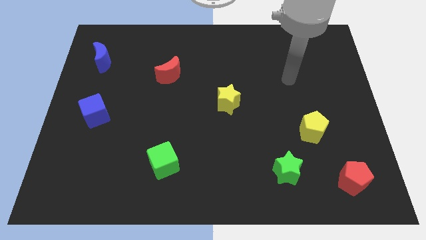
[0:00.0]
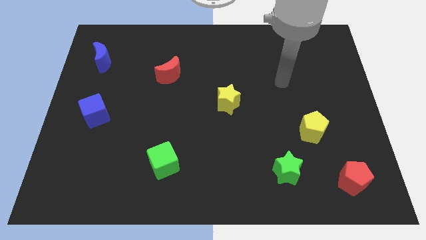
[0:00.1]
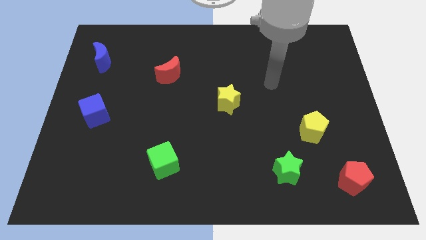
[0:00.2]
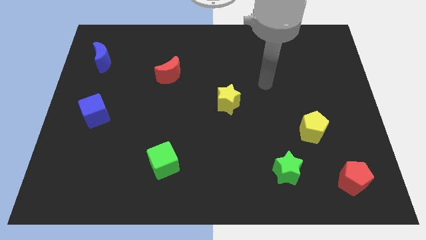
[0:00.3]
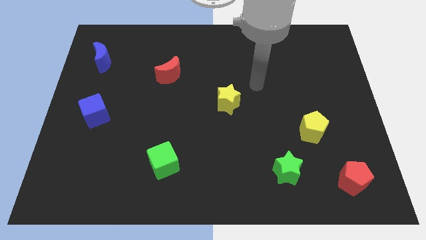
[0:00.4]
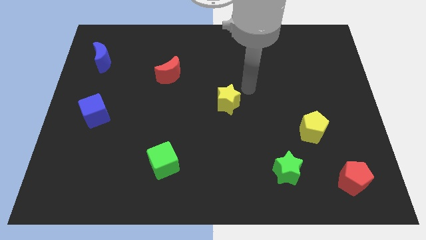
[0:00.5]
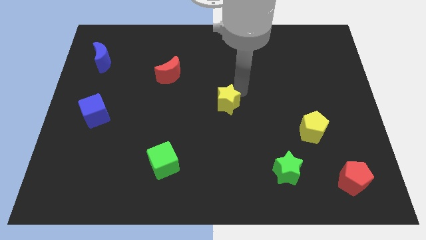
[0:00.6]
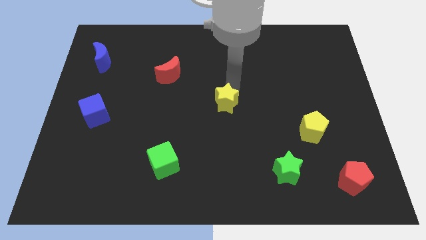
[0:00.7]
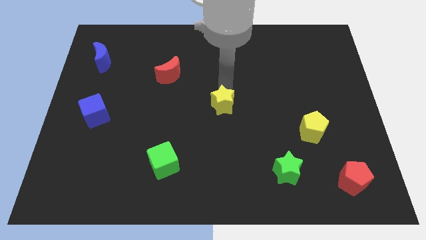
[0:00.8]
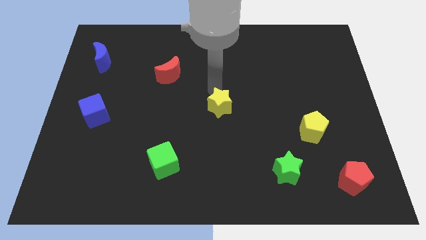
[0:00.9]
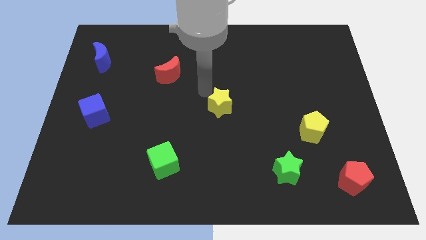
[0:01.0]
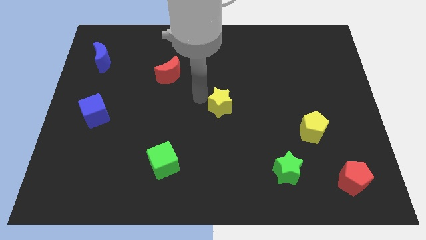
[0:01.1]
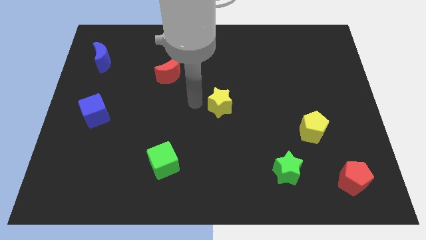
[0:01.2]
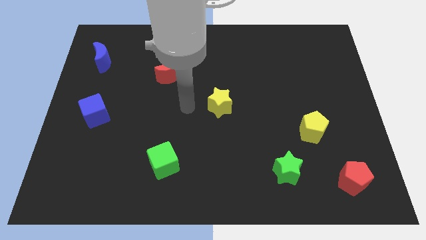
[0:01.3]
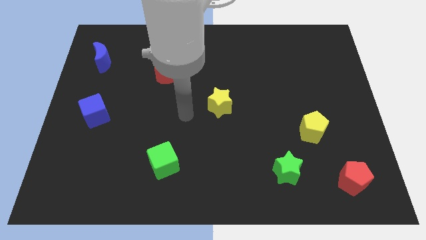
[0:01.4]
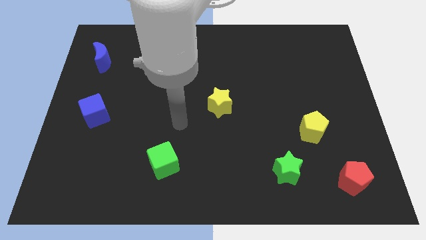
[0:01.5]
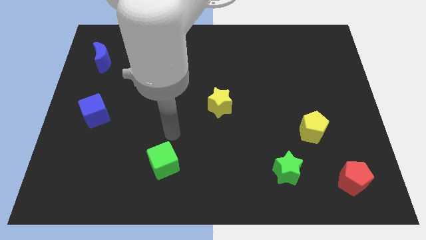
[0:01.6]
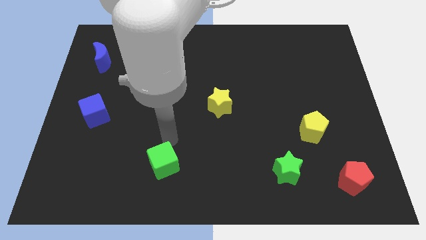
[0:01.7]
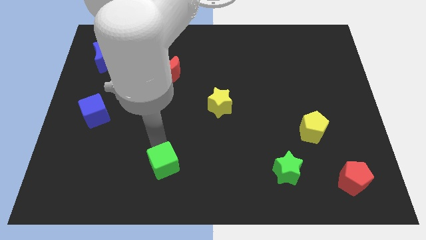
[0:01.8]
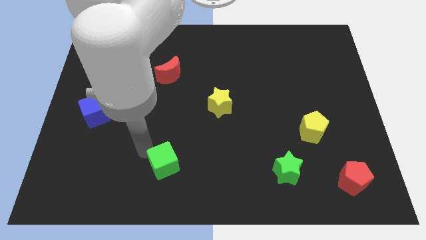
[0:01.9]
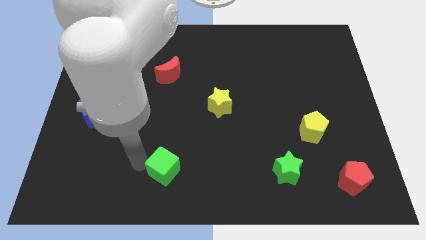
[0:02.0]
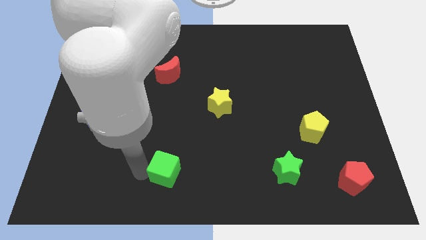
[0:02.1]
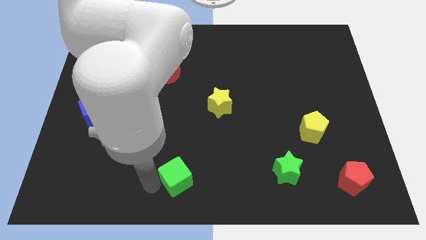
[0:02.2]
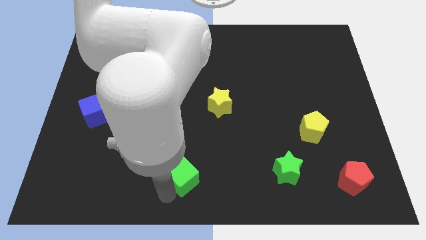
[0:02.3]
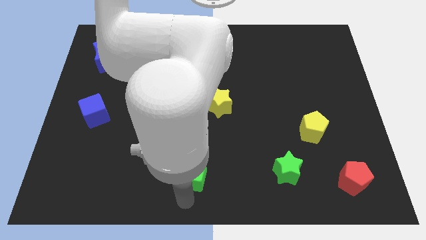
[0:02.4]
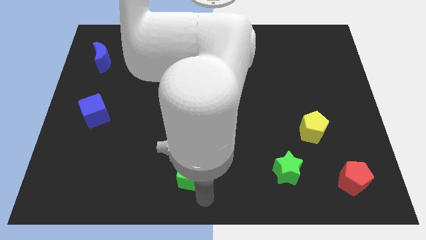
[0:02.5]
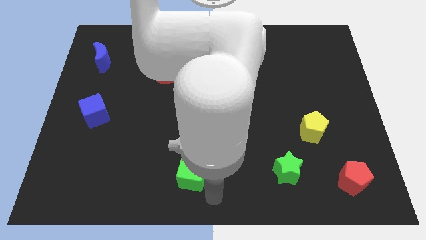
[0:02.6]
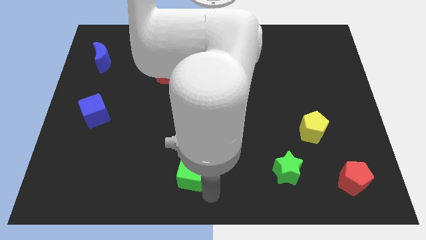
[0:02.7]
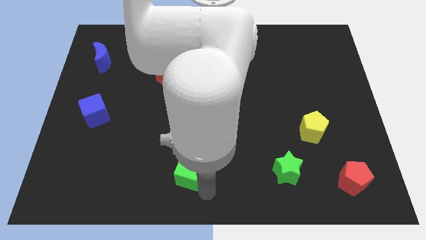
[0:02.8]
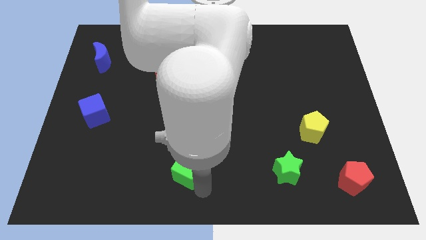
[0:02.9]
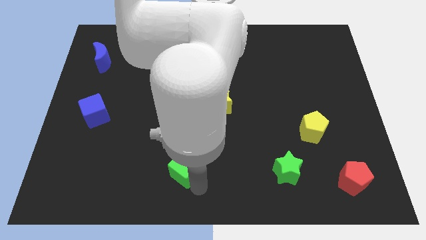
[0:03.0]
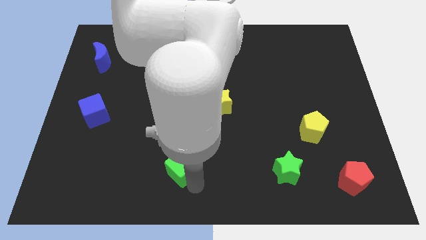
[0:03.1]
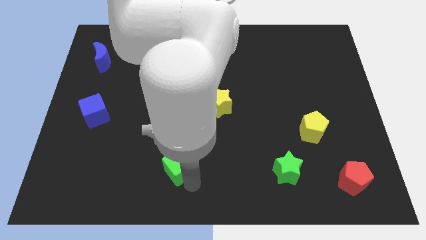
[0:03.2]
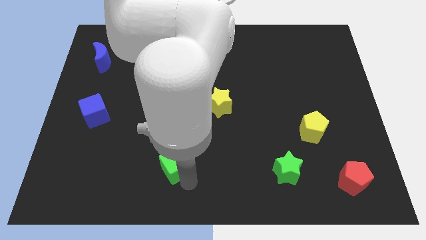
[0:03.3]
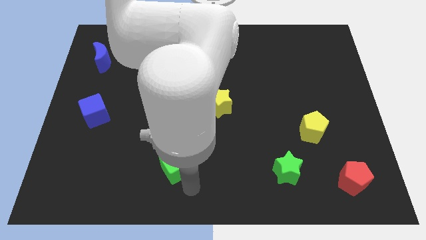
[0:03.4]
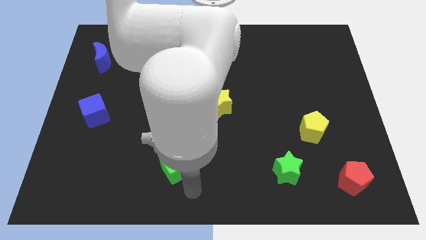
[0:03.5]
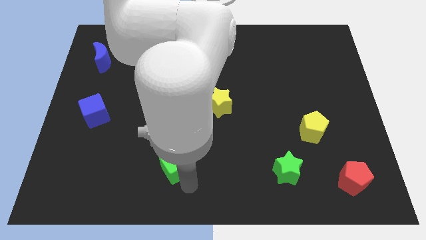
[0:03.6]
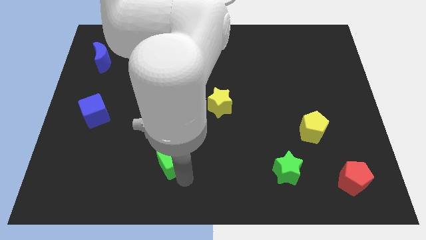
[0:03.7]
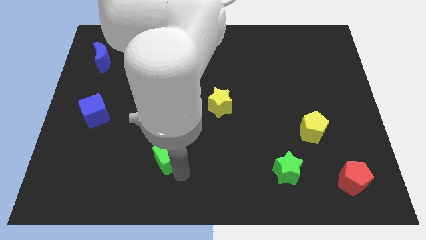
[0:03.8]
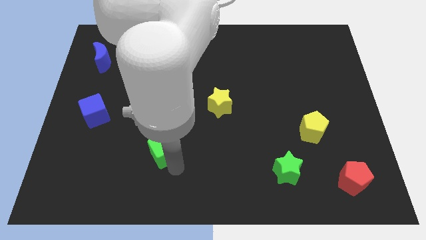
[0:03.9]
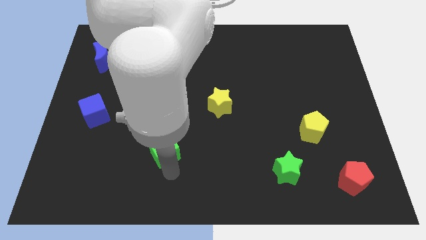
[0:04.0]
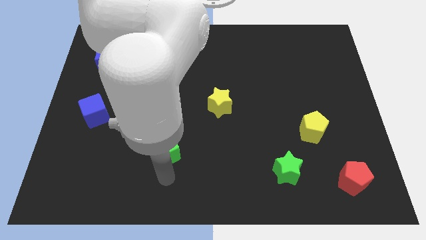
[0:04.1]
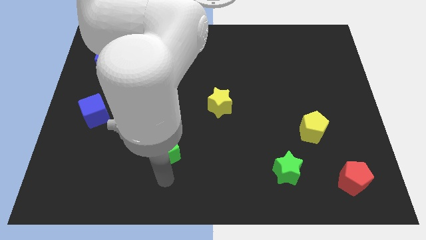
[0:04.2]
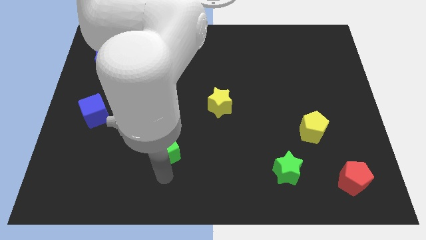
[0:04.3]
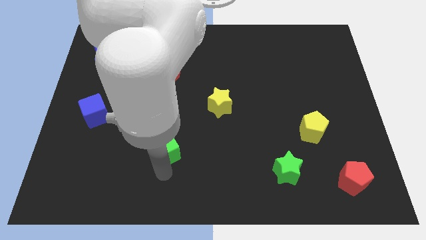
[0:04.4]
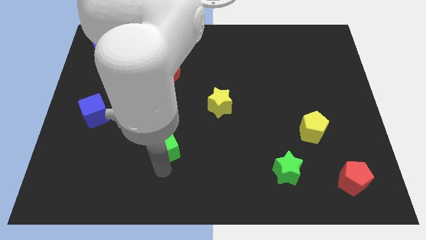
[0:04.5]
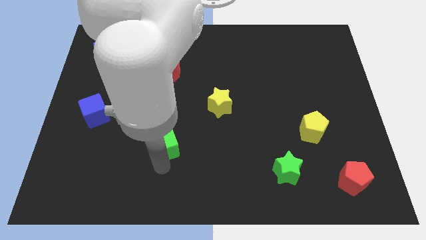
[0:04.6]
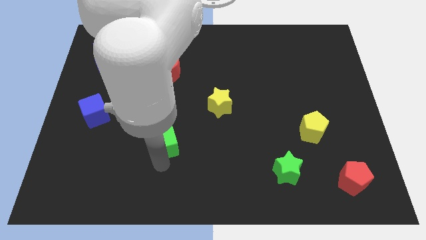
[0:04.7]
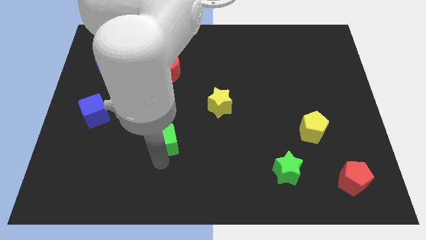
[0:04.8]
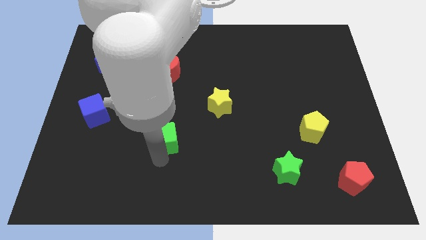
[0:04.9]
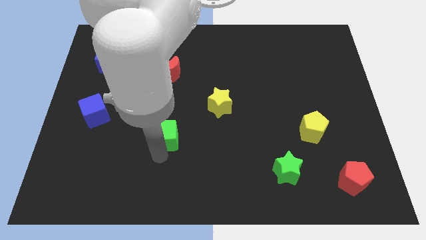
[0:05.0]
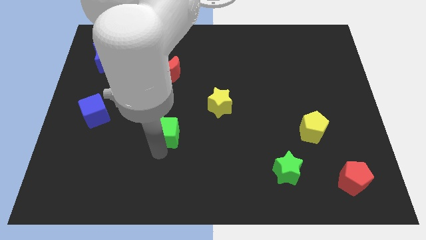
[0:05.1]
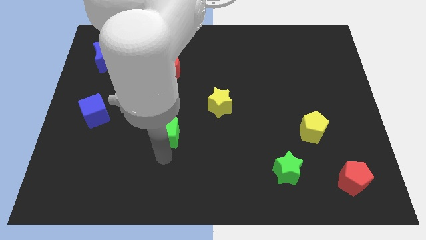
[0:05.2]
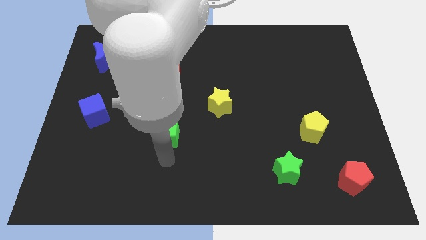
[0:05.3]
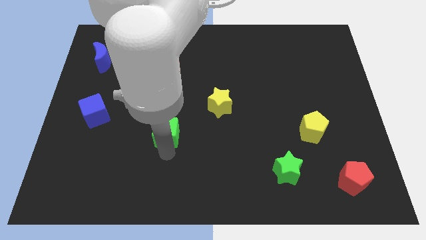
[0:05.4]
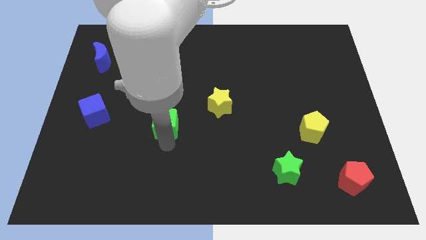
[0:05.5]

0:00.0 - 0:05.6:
put the green cube to the bottom side of the red moon
